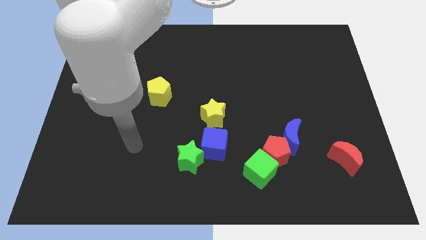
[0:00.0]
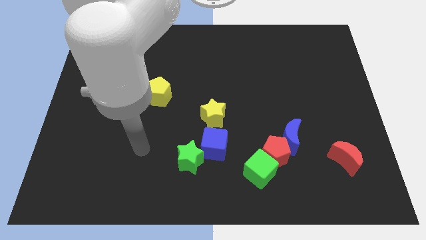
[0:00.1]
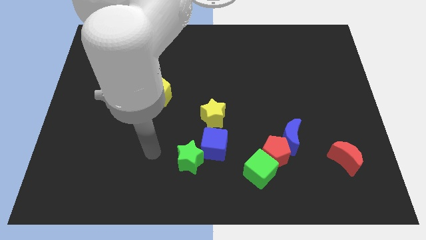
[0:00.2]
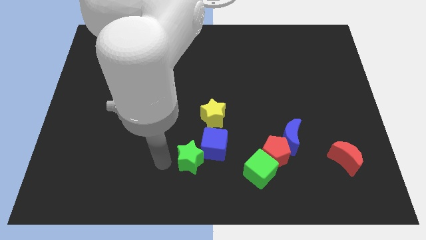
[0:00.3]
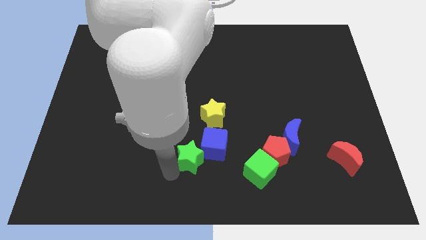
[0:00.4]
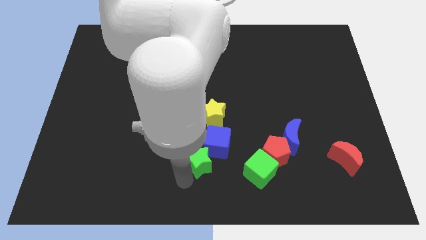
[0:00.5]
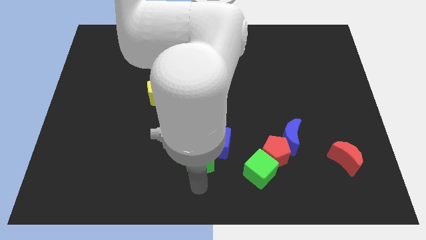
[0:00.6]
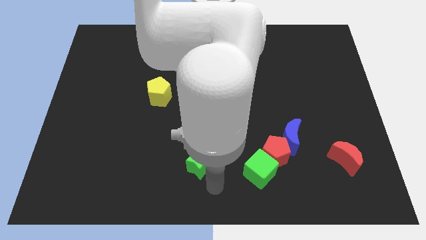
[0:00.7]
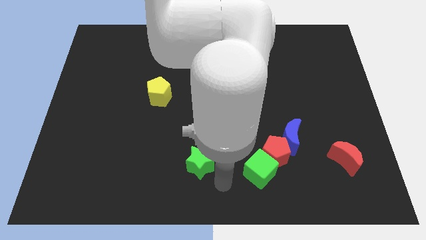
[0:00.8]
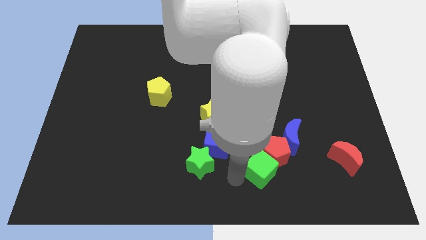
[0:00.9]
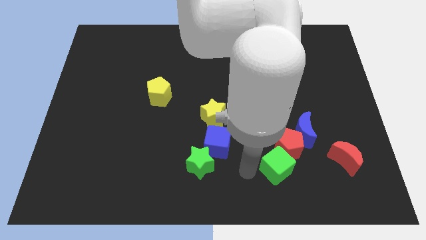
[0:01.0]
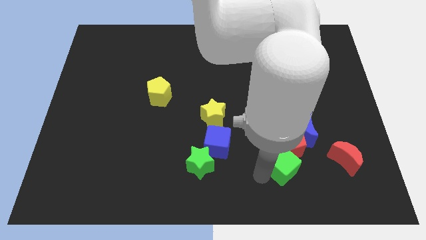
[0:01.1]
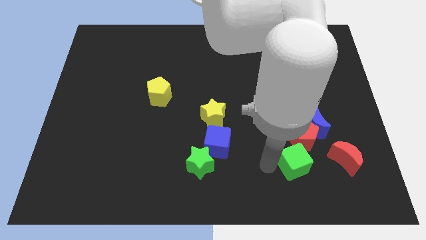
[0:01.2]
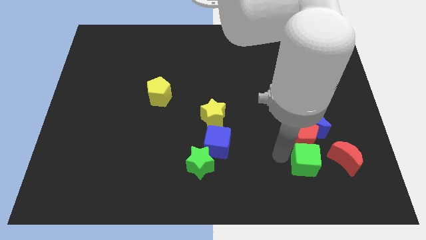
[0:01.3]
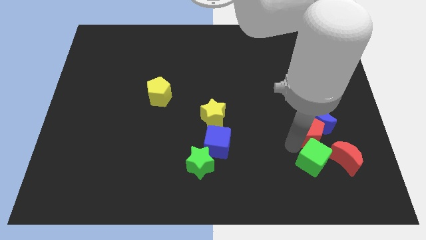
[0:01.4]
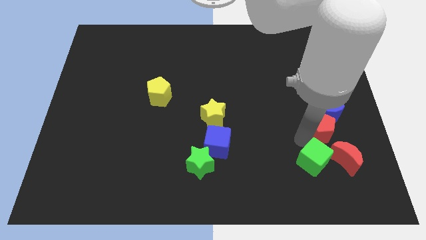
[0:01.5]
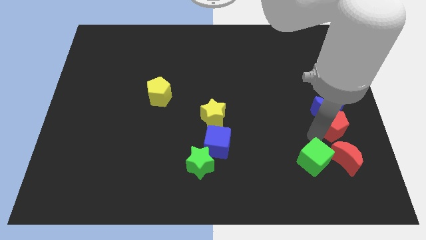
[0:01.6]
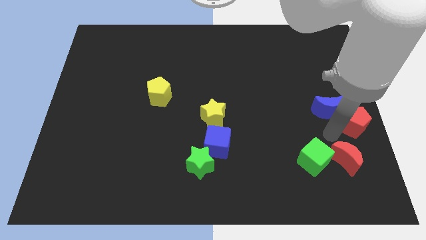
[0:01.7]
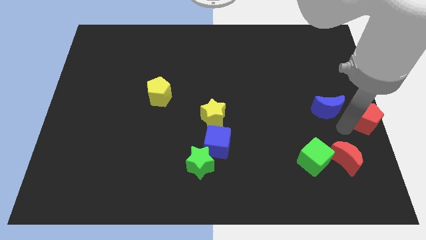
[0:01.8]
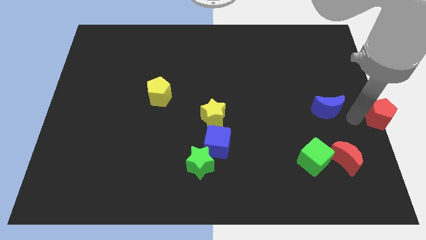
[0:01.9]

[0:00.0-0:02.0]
pull the blue moon apart from the red pentagon

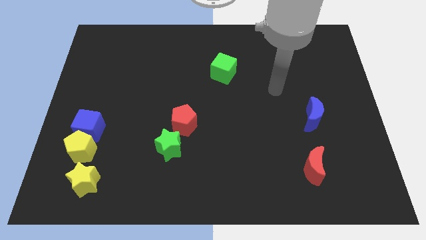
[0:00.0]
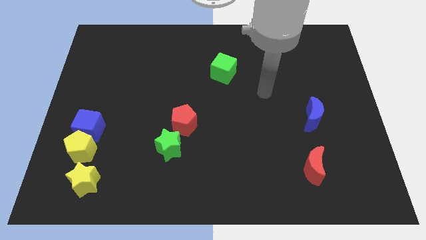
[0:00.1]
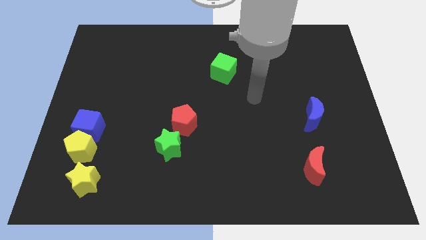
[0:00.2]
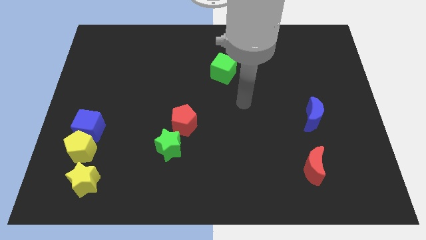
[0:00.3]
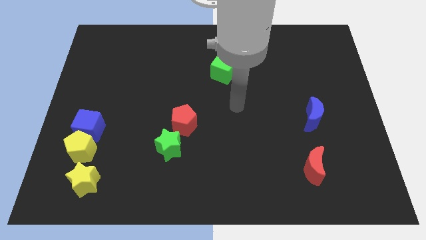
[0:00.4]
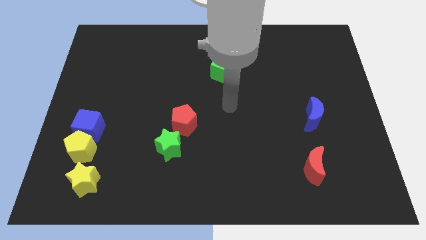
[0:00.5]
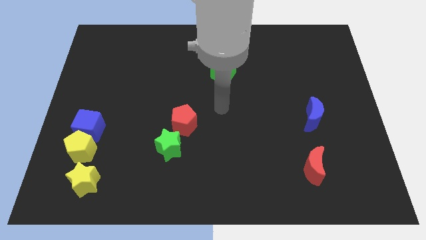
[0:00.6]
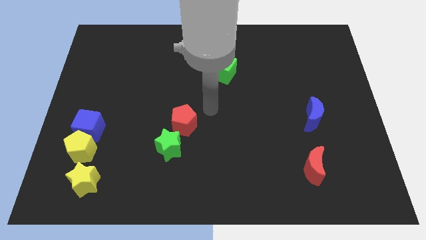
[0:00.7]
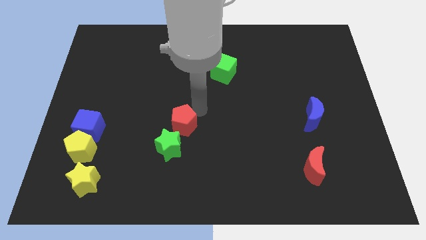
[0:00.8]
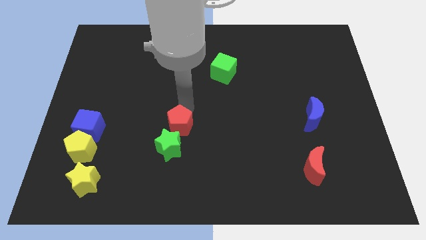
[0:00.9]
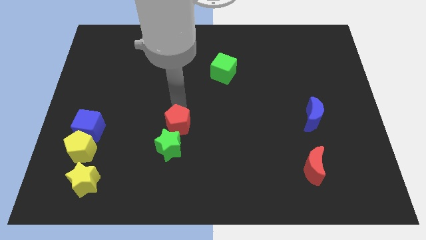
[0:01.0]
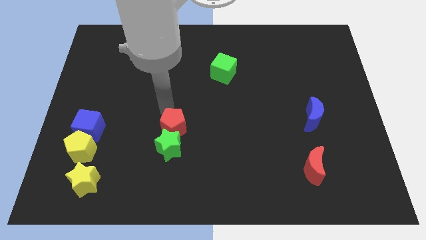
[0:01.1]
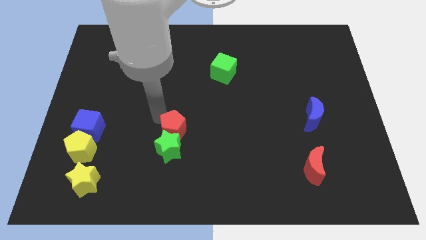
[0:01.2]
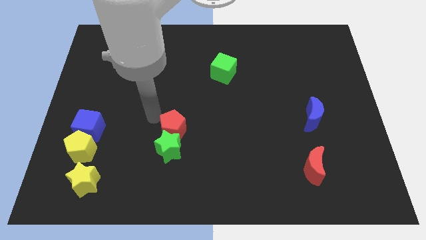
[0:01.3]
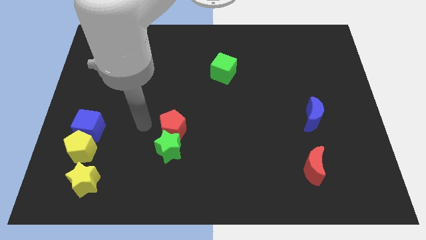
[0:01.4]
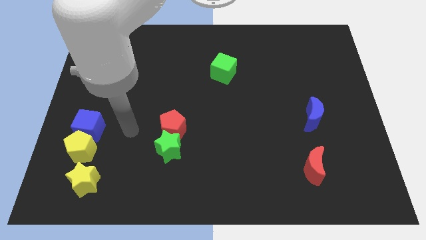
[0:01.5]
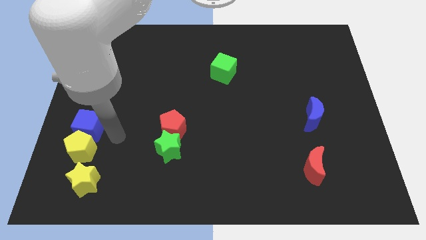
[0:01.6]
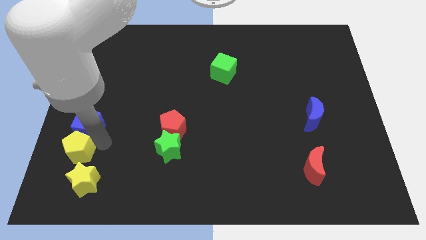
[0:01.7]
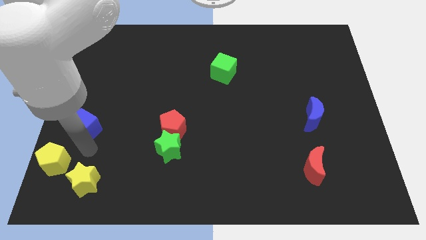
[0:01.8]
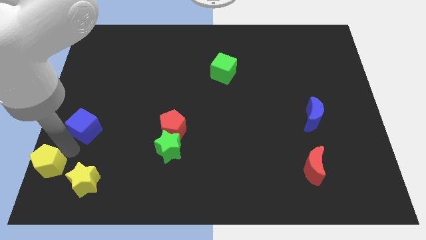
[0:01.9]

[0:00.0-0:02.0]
move the blue cube away from the yellow pentagon

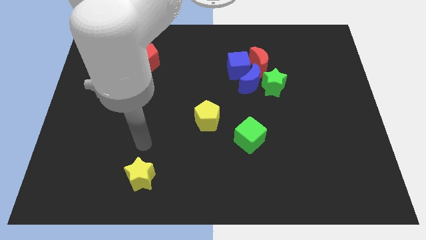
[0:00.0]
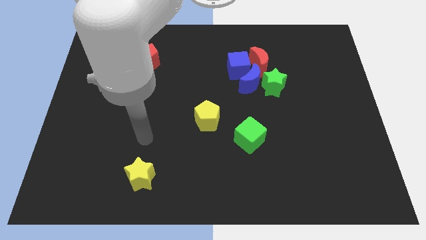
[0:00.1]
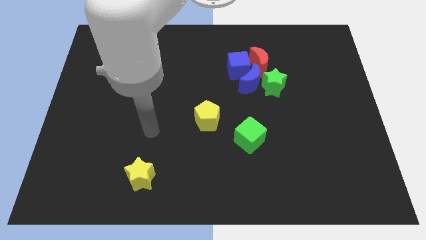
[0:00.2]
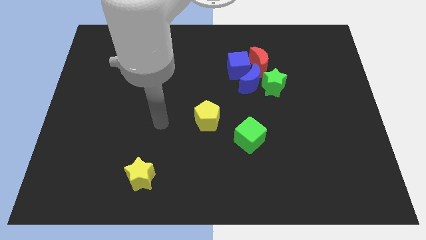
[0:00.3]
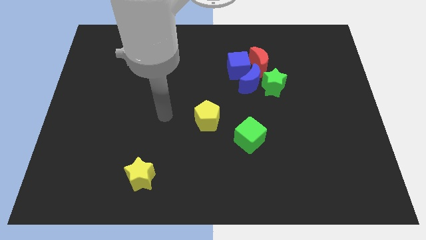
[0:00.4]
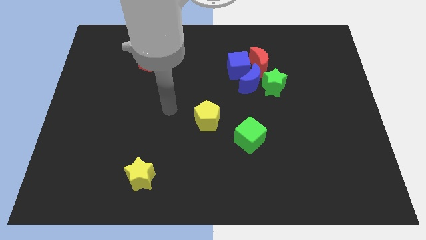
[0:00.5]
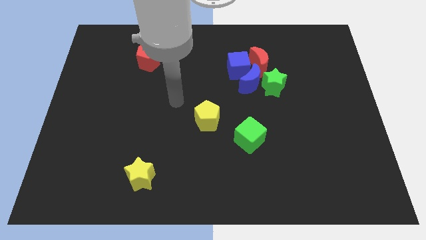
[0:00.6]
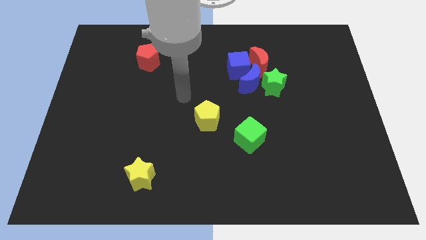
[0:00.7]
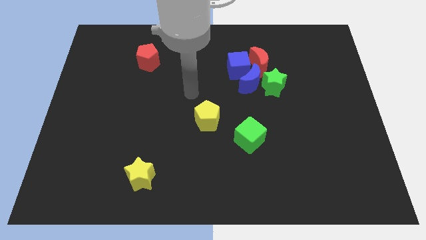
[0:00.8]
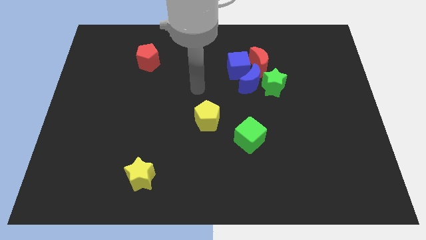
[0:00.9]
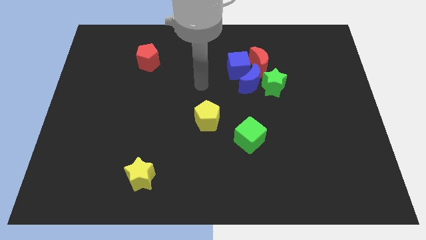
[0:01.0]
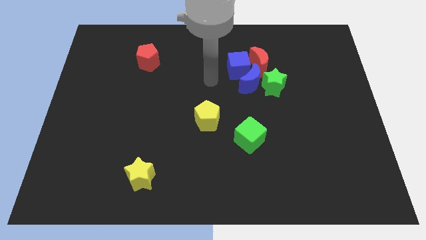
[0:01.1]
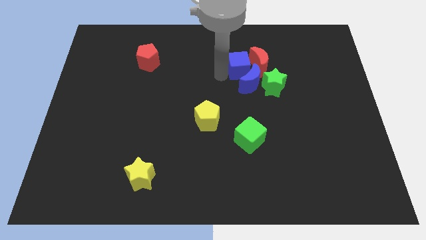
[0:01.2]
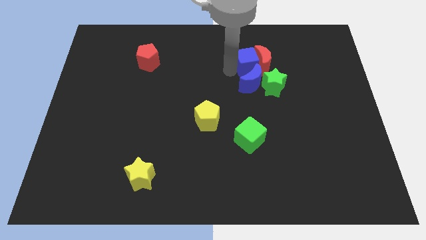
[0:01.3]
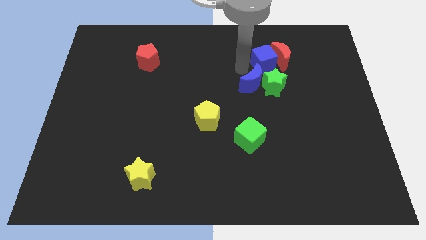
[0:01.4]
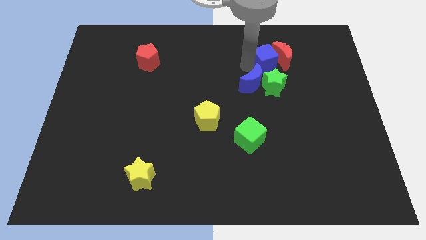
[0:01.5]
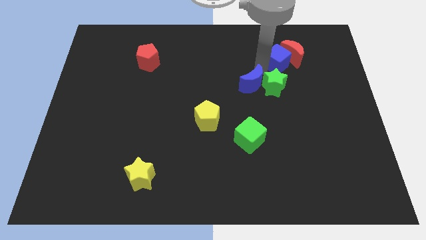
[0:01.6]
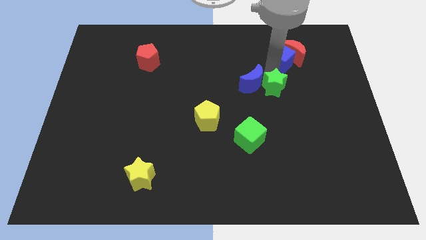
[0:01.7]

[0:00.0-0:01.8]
move the blue moon away from the green star, blue cube, and red moon

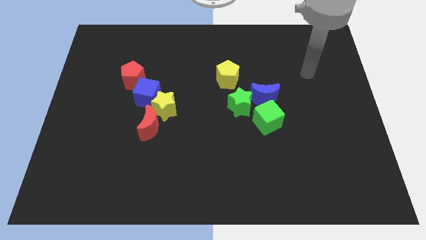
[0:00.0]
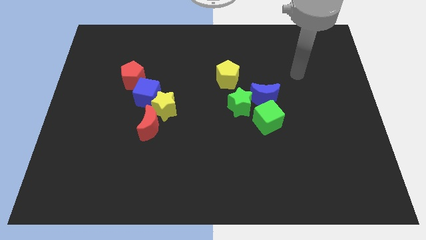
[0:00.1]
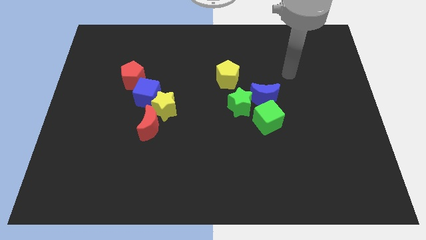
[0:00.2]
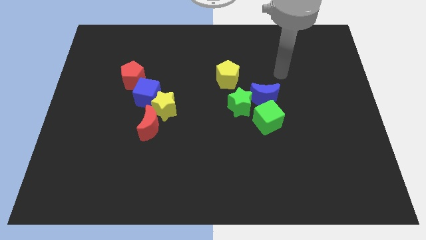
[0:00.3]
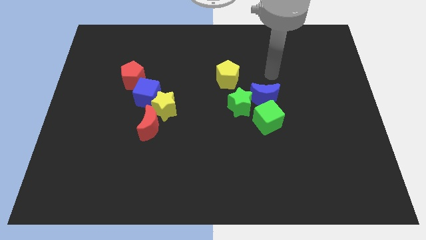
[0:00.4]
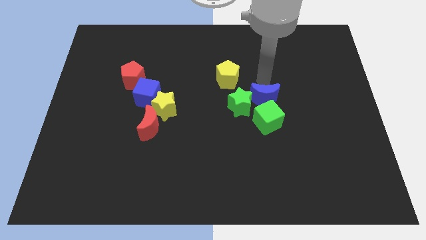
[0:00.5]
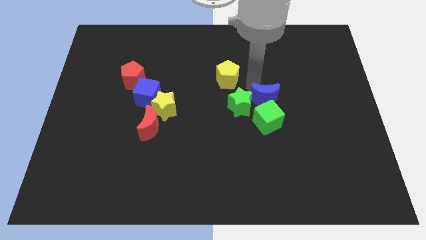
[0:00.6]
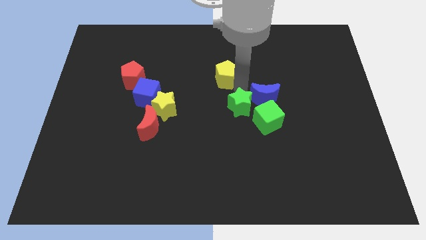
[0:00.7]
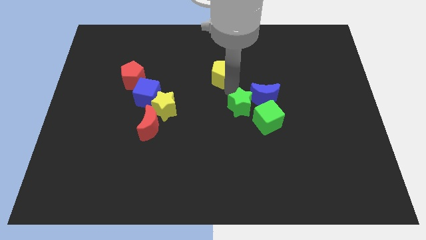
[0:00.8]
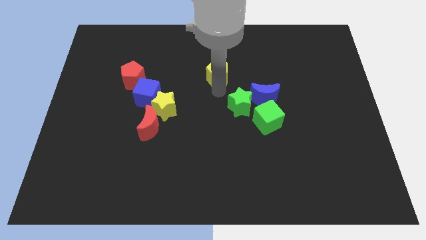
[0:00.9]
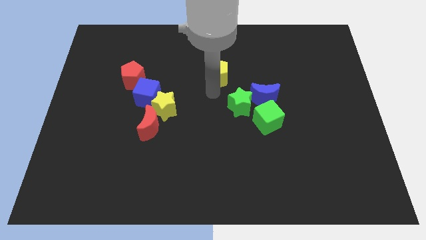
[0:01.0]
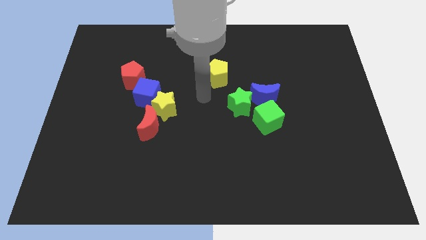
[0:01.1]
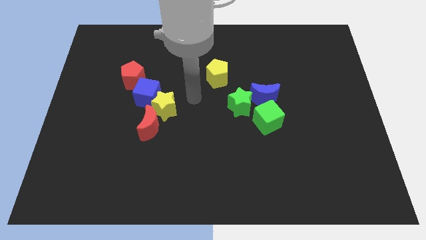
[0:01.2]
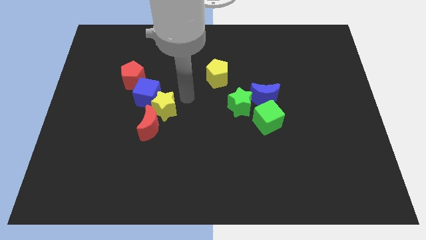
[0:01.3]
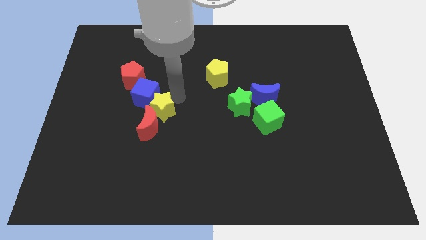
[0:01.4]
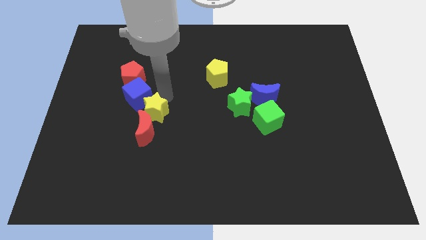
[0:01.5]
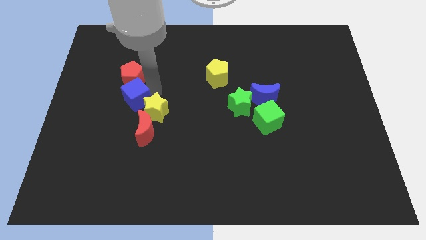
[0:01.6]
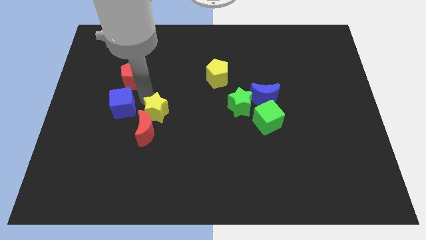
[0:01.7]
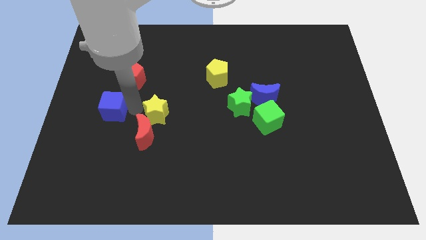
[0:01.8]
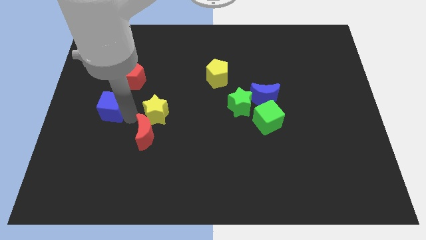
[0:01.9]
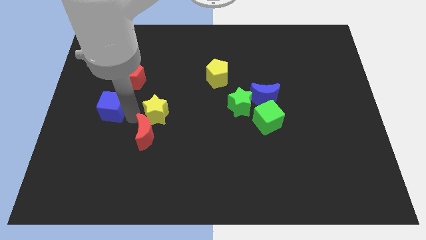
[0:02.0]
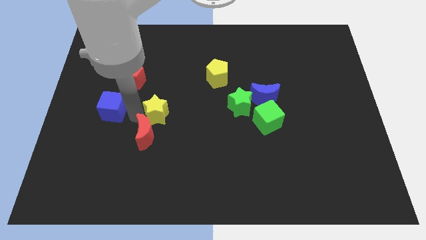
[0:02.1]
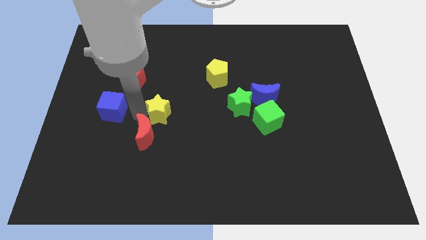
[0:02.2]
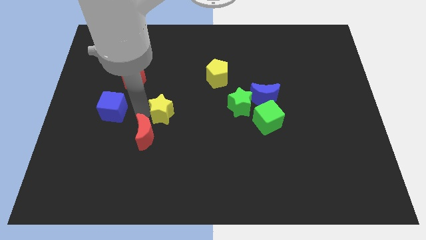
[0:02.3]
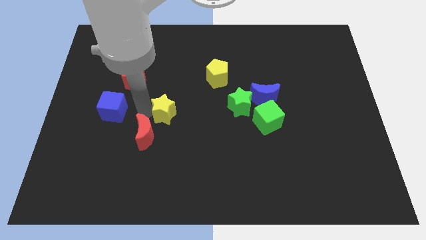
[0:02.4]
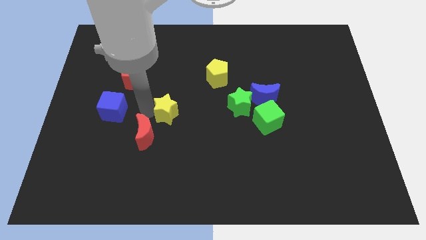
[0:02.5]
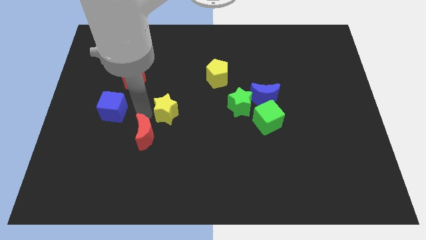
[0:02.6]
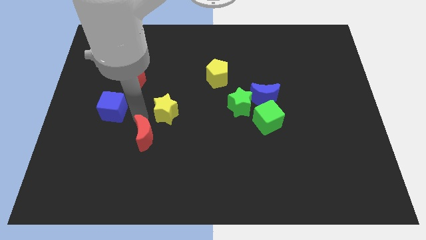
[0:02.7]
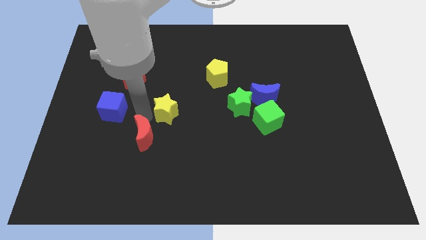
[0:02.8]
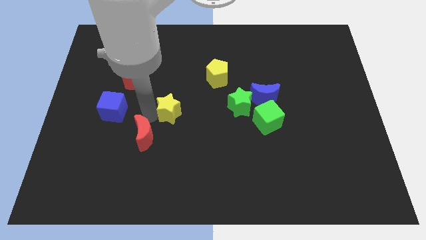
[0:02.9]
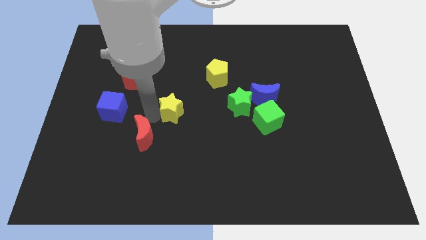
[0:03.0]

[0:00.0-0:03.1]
pull the yellow star apart from the red moon and blue cube

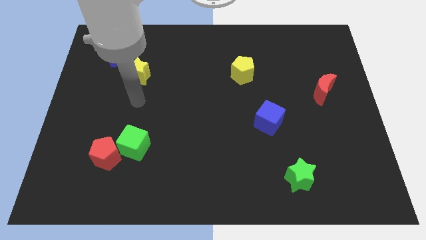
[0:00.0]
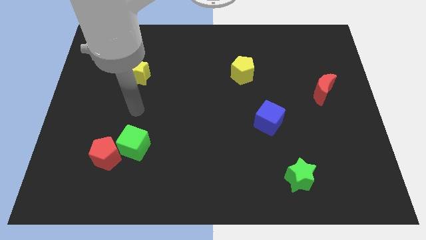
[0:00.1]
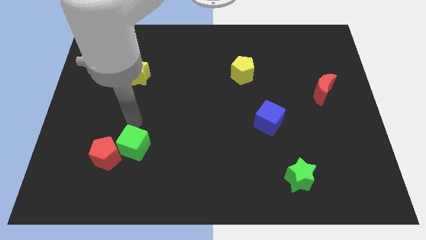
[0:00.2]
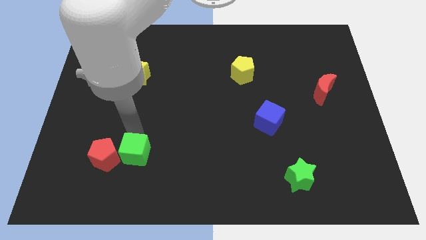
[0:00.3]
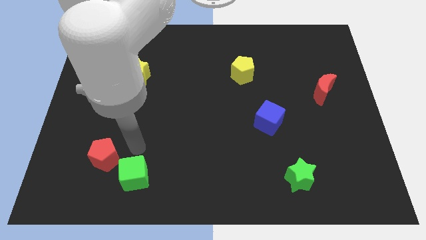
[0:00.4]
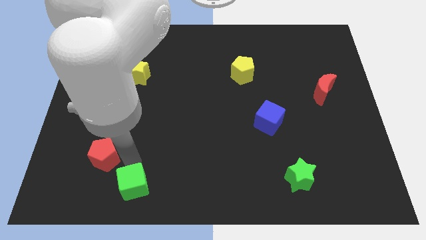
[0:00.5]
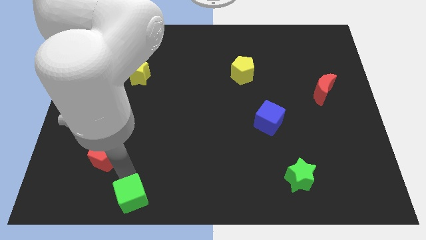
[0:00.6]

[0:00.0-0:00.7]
separate the red pentagon from the green cube
